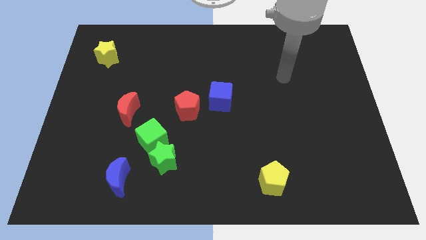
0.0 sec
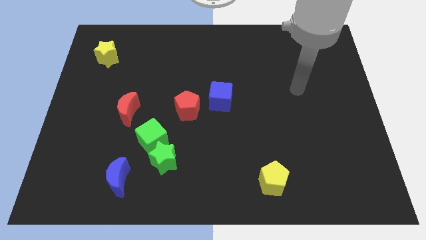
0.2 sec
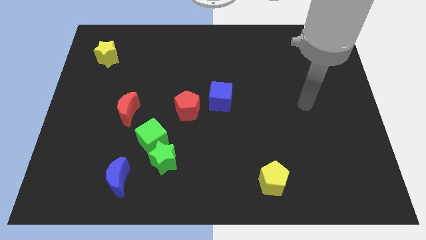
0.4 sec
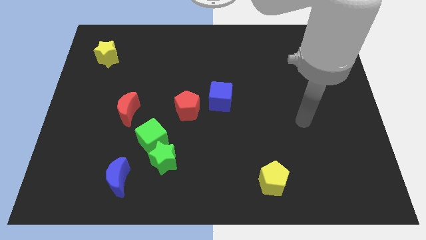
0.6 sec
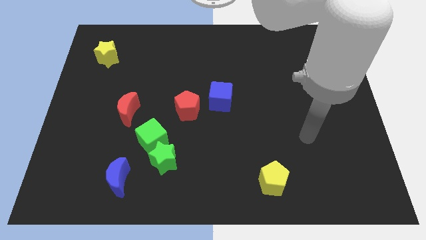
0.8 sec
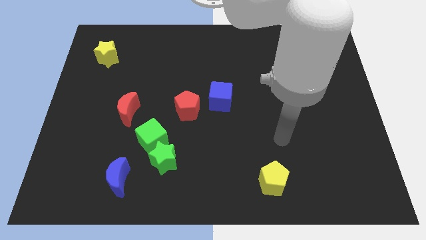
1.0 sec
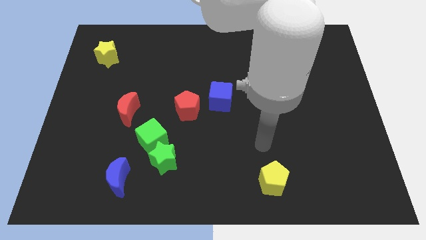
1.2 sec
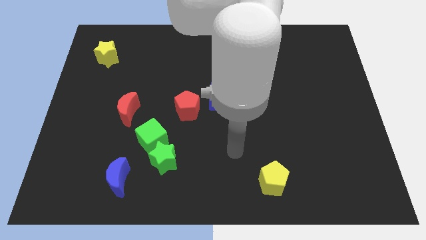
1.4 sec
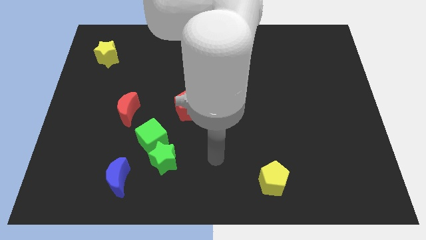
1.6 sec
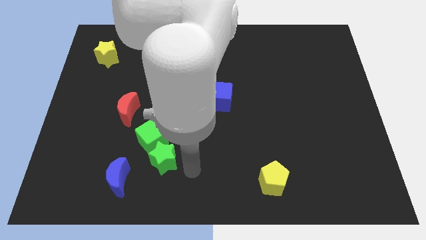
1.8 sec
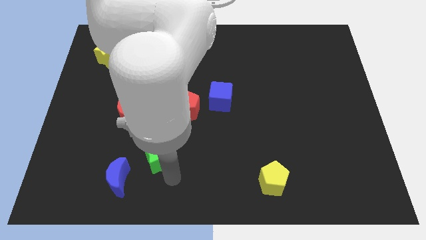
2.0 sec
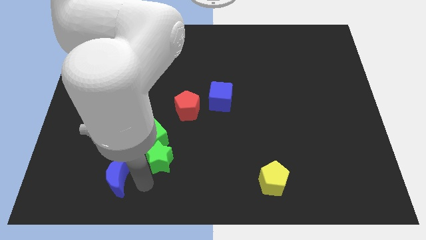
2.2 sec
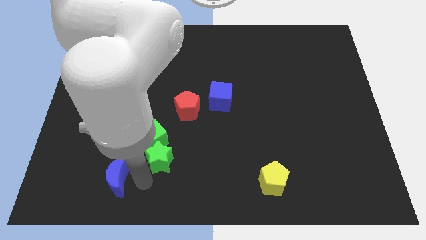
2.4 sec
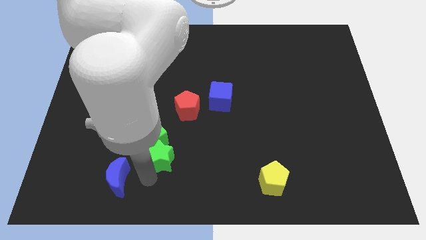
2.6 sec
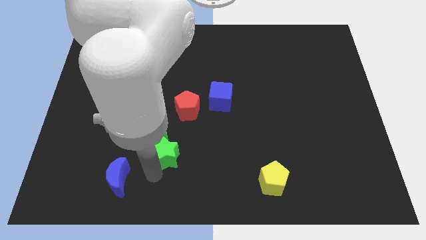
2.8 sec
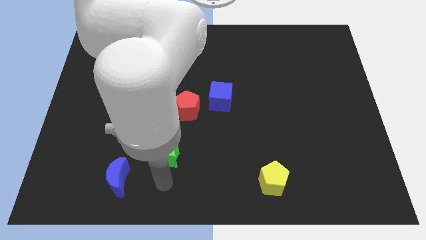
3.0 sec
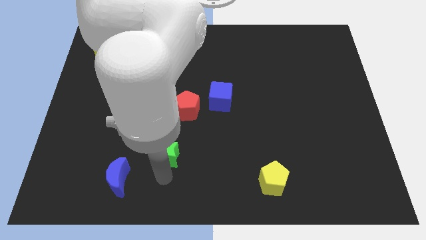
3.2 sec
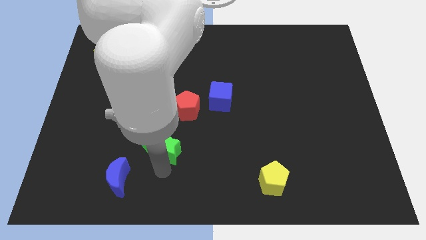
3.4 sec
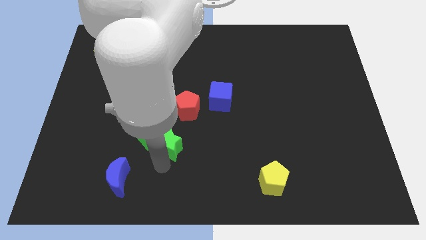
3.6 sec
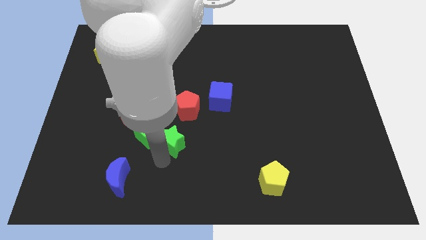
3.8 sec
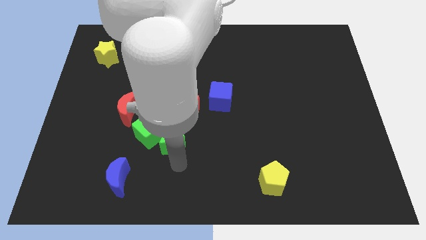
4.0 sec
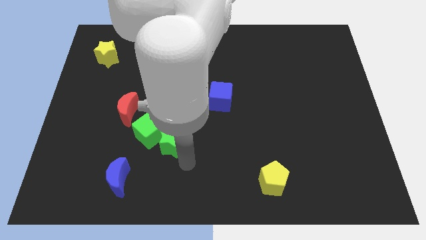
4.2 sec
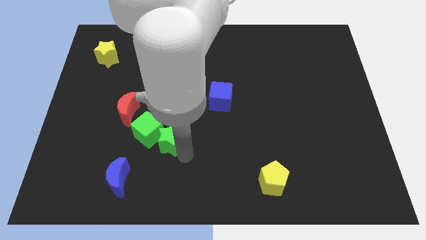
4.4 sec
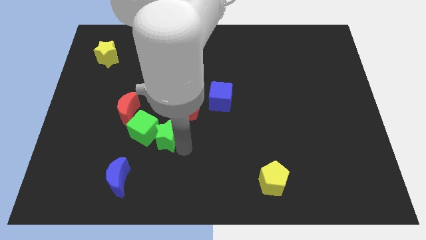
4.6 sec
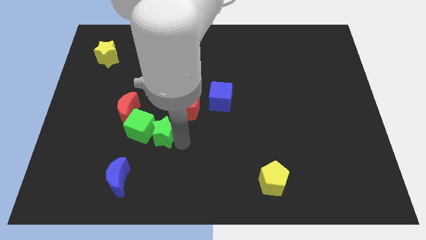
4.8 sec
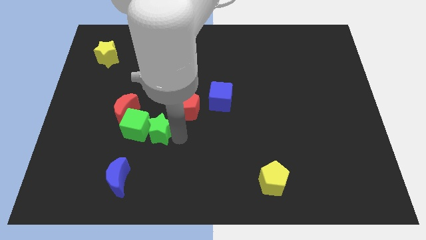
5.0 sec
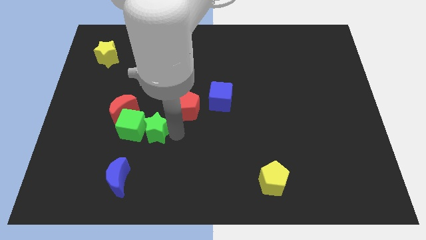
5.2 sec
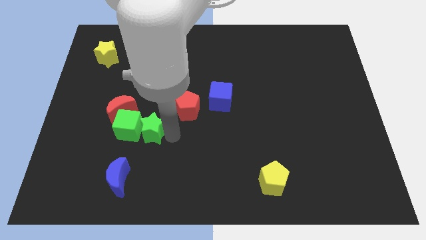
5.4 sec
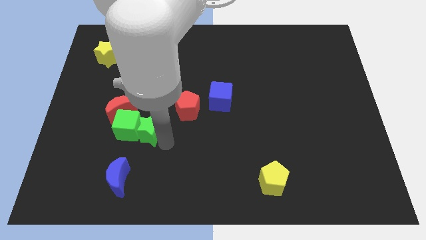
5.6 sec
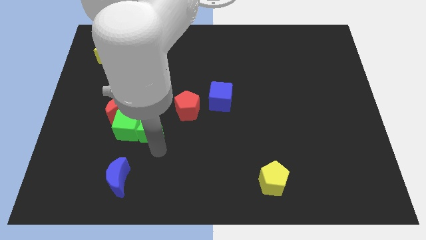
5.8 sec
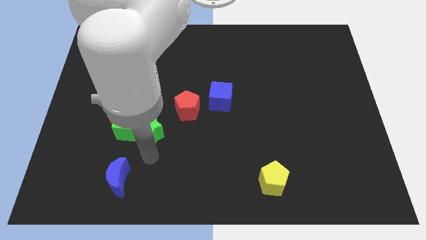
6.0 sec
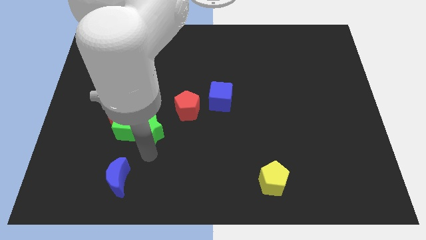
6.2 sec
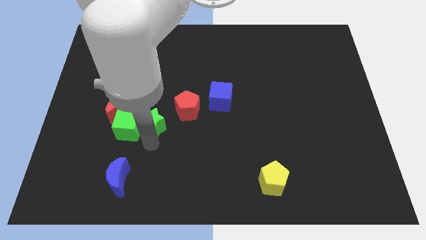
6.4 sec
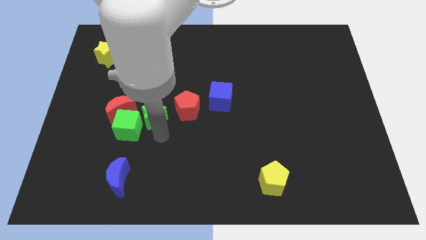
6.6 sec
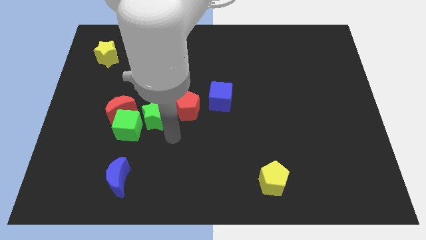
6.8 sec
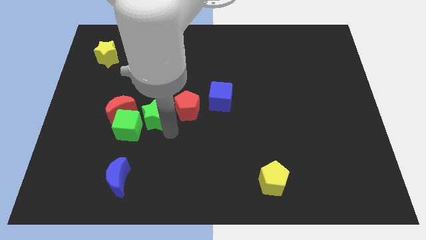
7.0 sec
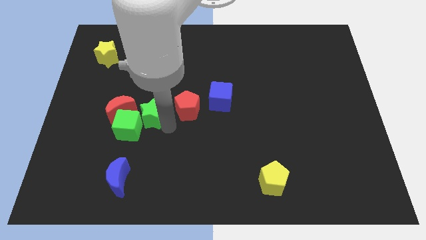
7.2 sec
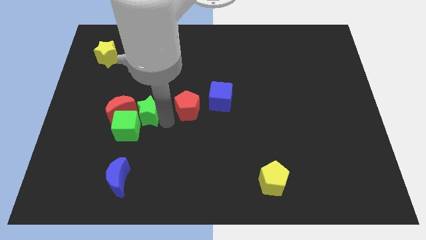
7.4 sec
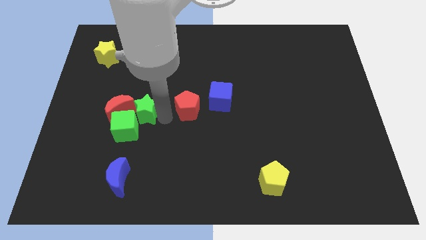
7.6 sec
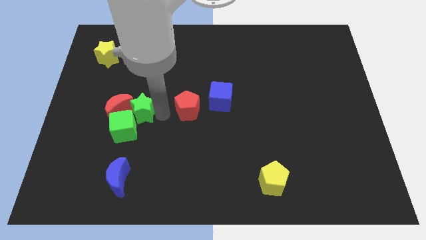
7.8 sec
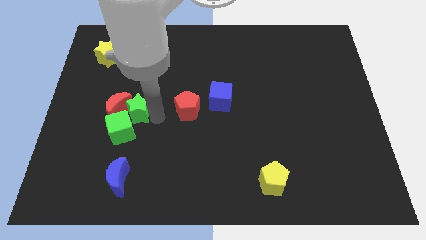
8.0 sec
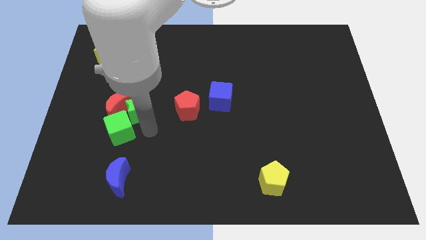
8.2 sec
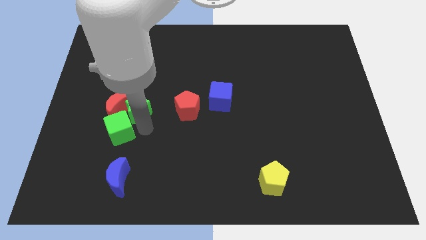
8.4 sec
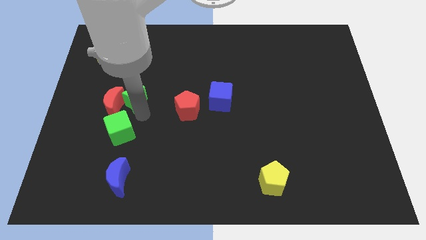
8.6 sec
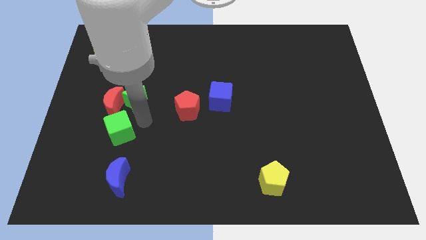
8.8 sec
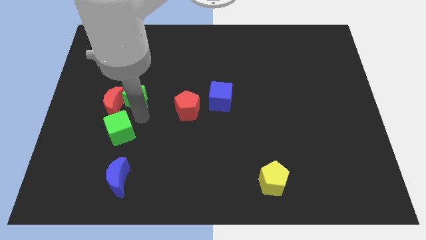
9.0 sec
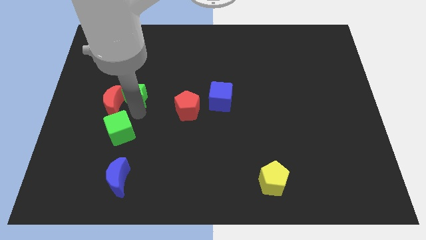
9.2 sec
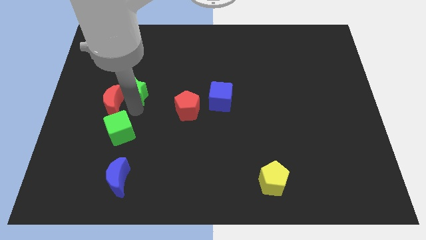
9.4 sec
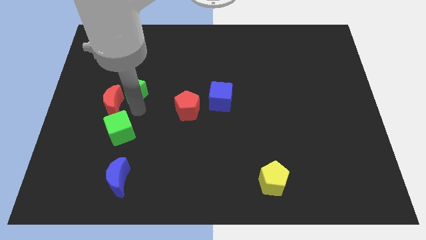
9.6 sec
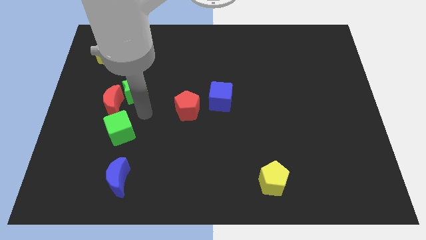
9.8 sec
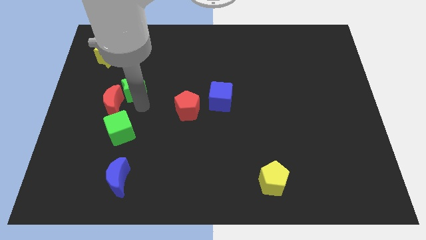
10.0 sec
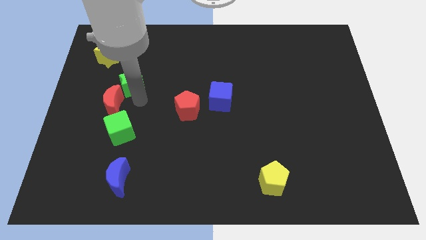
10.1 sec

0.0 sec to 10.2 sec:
push the green star diagonally down and to the right of the yellow star

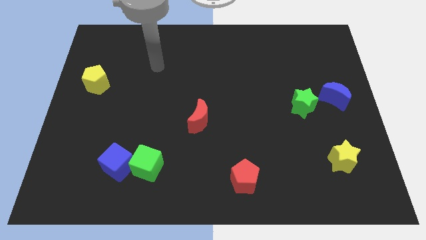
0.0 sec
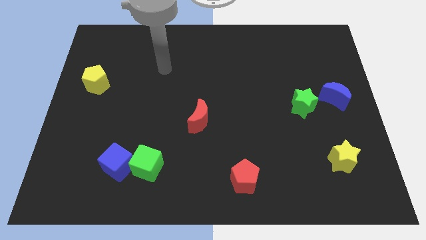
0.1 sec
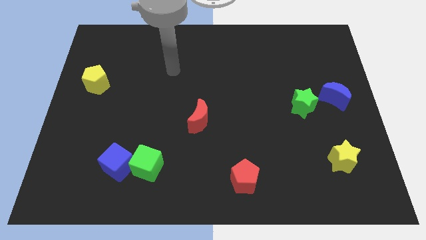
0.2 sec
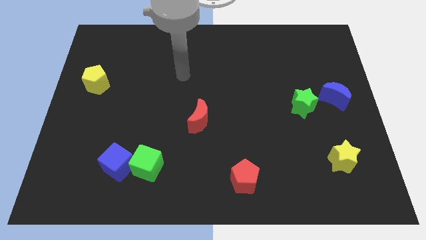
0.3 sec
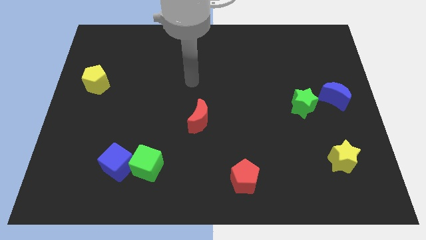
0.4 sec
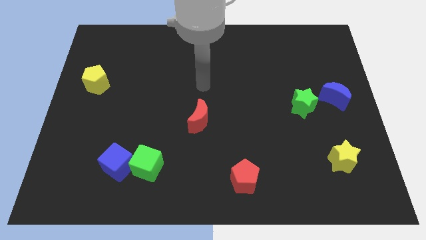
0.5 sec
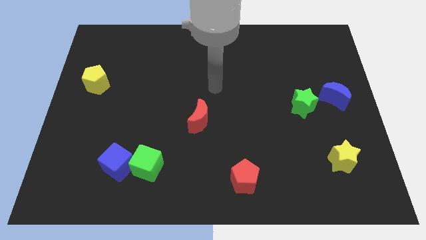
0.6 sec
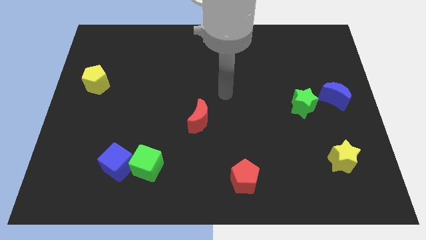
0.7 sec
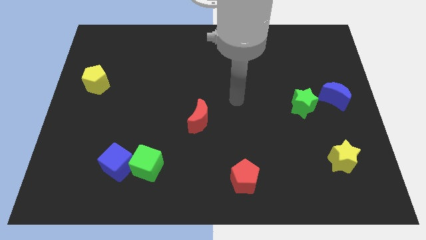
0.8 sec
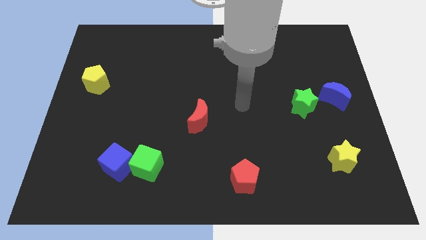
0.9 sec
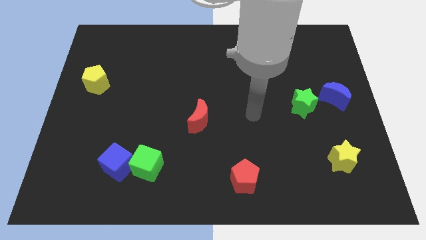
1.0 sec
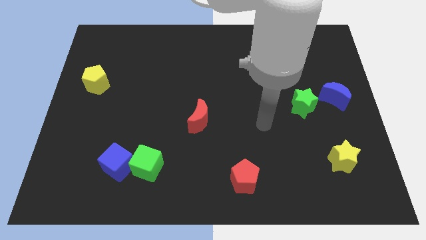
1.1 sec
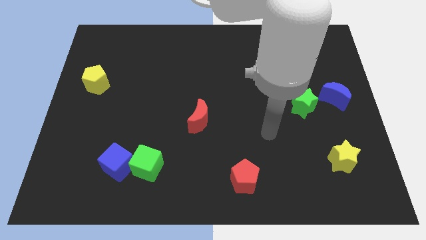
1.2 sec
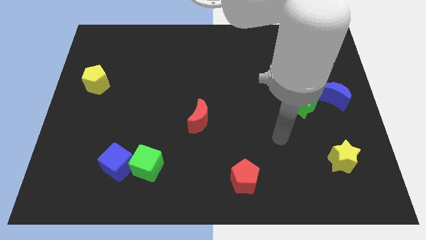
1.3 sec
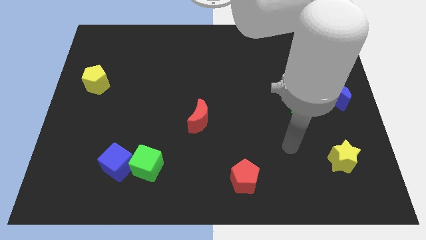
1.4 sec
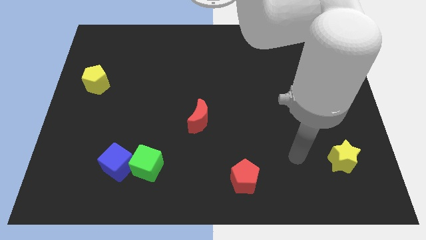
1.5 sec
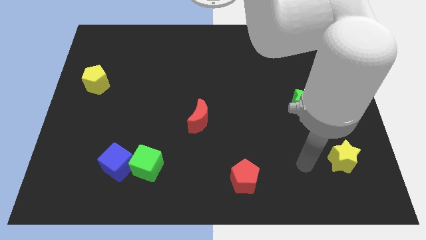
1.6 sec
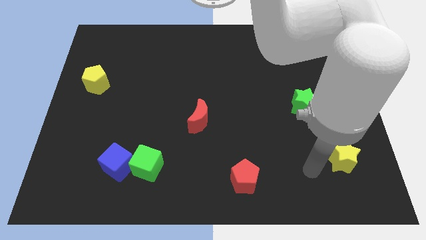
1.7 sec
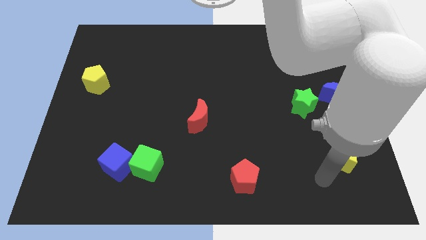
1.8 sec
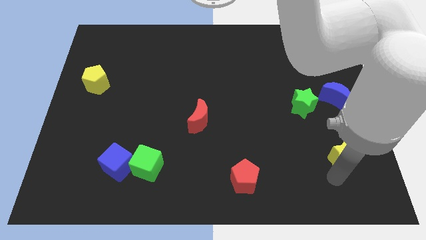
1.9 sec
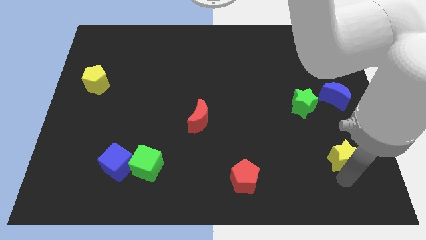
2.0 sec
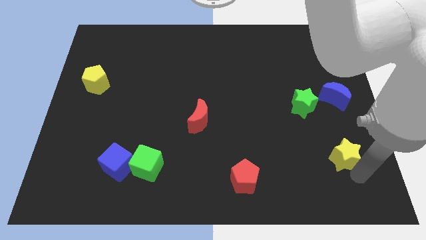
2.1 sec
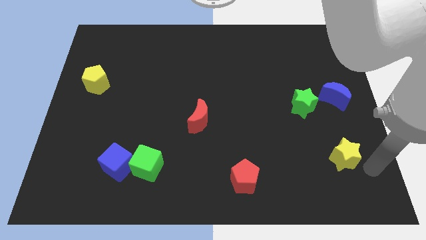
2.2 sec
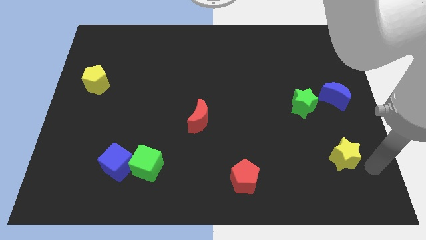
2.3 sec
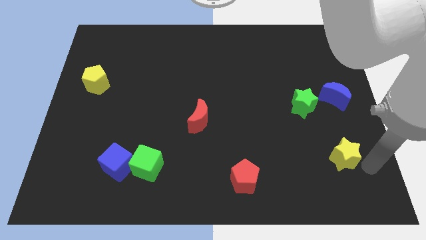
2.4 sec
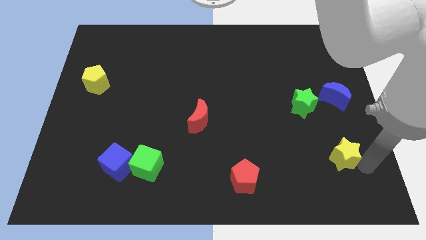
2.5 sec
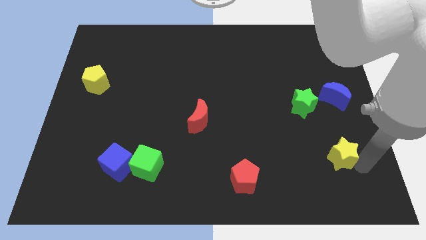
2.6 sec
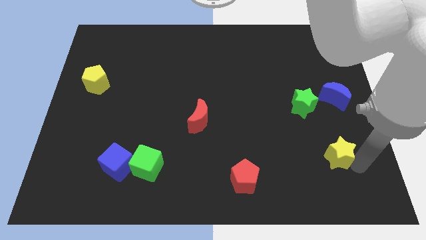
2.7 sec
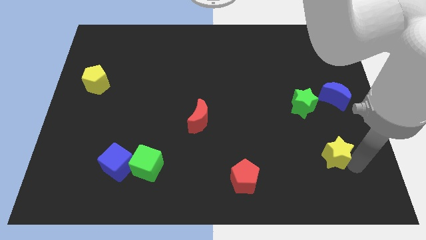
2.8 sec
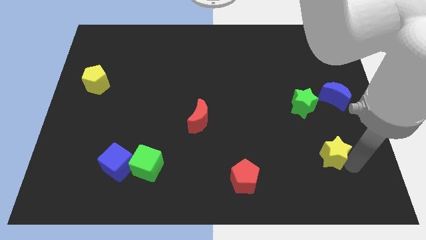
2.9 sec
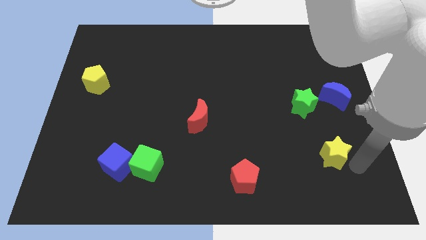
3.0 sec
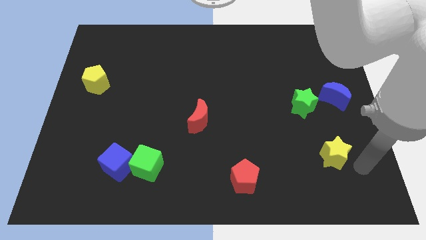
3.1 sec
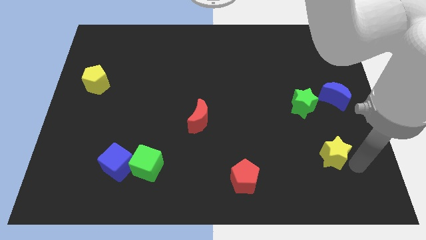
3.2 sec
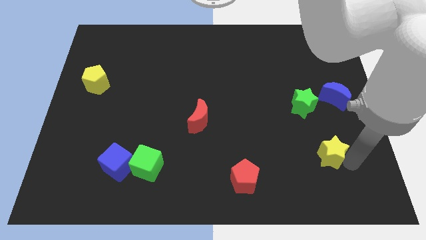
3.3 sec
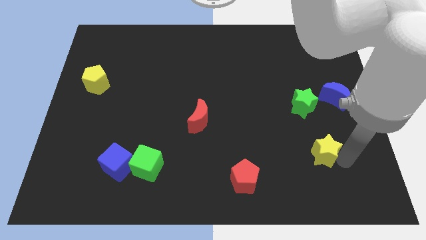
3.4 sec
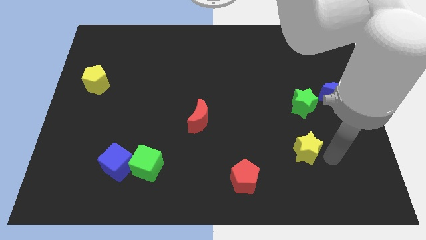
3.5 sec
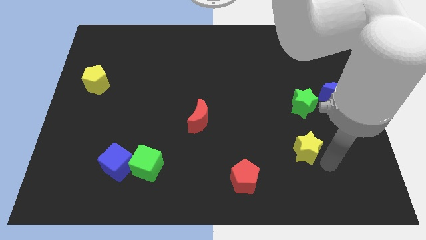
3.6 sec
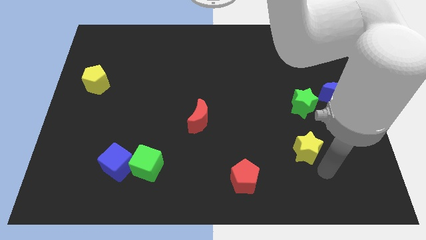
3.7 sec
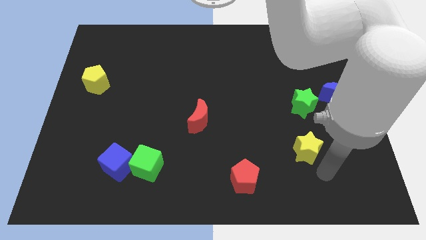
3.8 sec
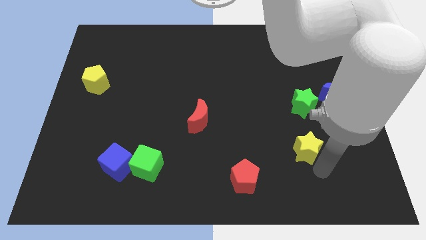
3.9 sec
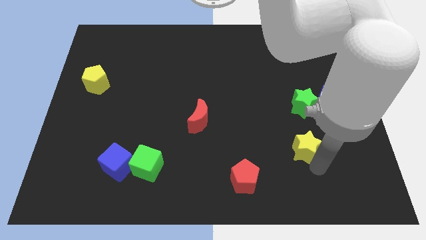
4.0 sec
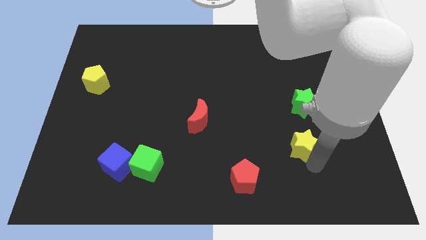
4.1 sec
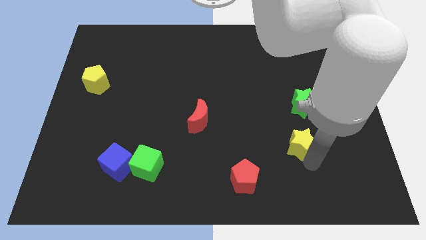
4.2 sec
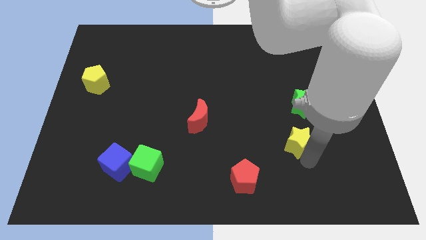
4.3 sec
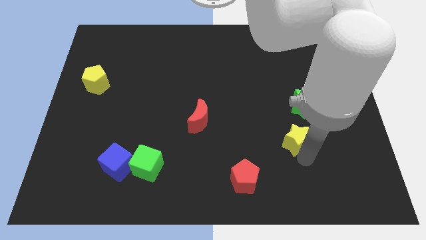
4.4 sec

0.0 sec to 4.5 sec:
push the yellow star to the bottom left side of the green star
